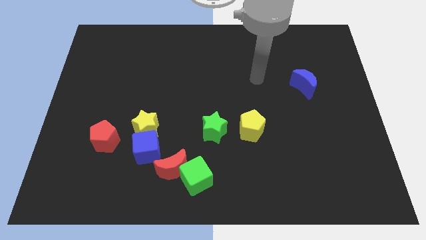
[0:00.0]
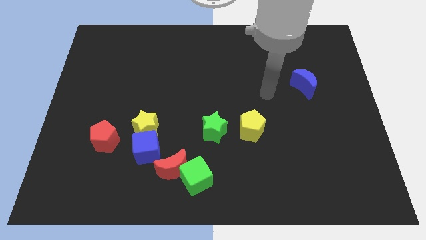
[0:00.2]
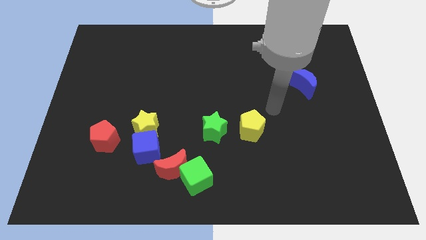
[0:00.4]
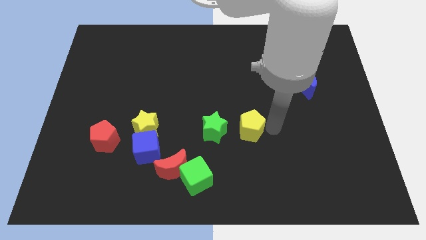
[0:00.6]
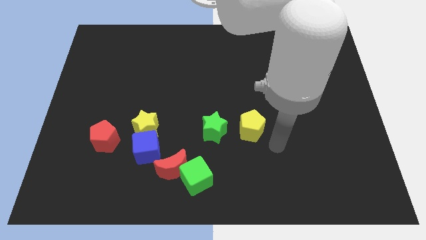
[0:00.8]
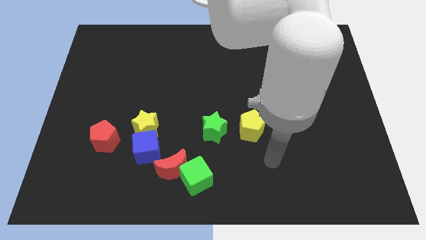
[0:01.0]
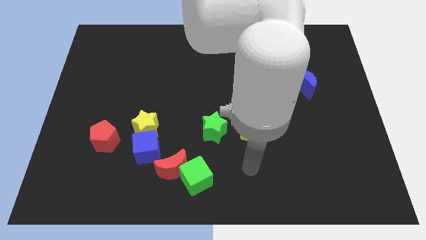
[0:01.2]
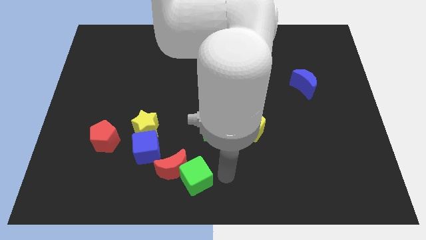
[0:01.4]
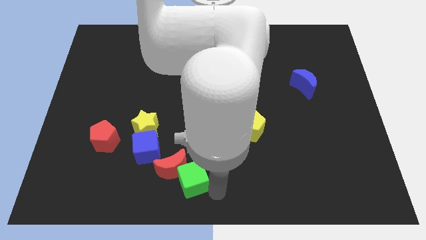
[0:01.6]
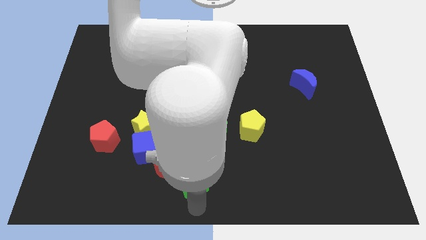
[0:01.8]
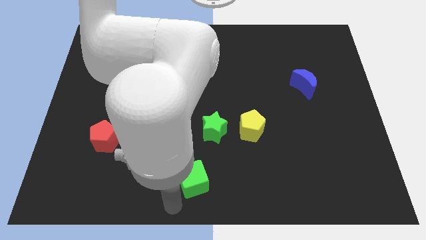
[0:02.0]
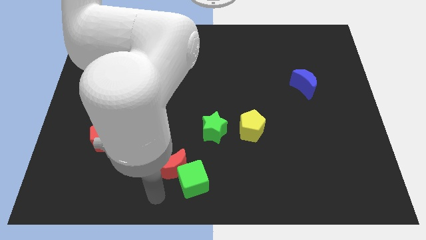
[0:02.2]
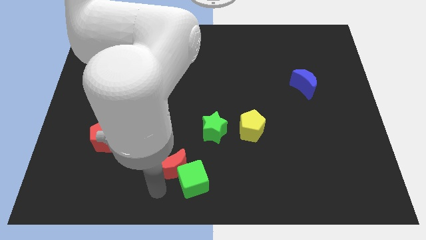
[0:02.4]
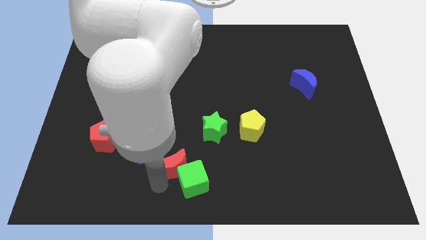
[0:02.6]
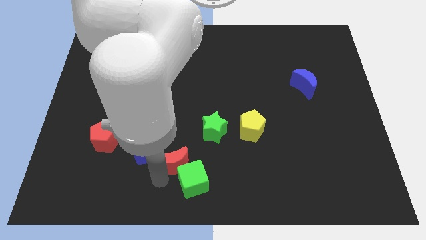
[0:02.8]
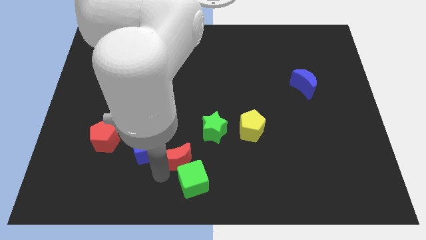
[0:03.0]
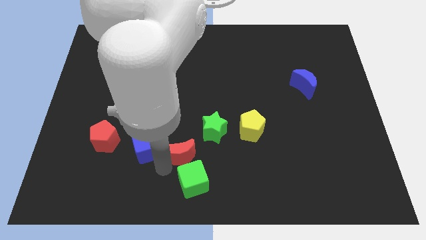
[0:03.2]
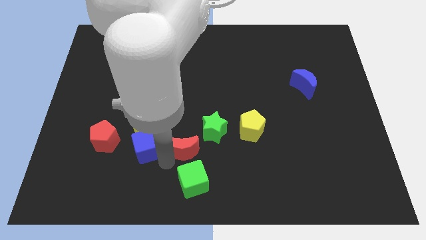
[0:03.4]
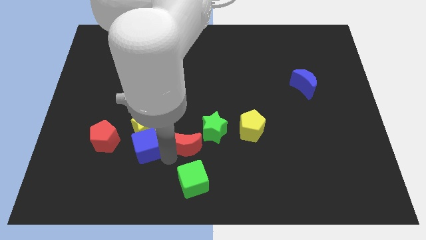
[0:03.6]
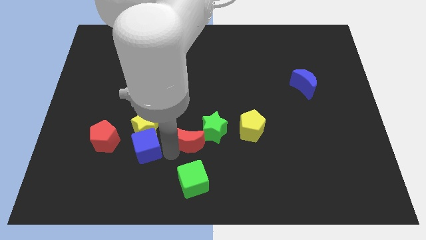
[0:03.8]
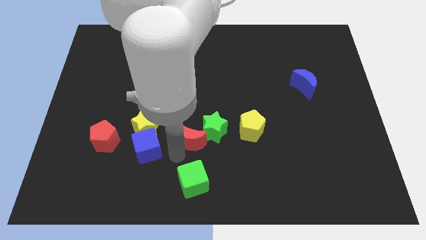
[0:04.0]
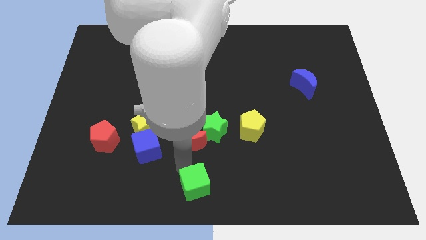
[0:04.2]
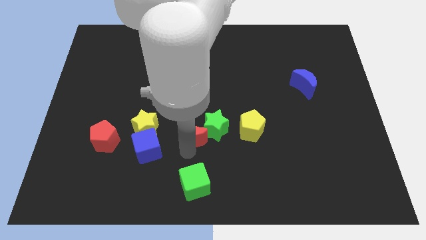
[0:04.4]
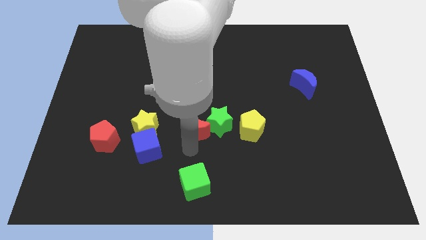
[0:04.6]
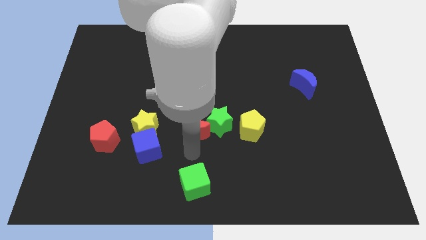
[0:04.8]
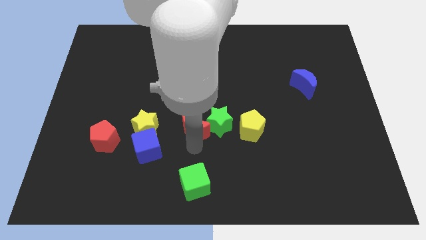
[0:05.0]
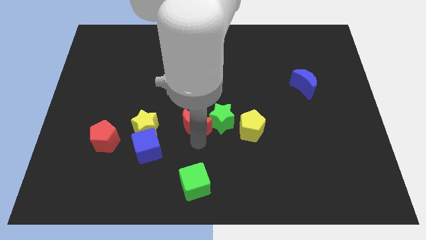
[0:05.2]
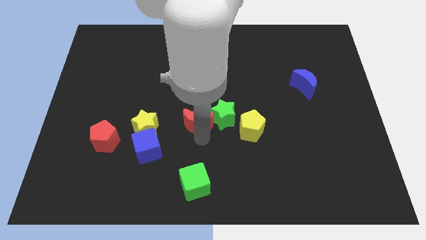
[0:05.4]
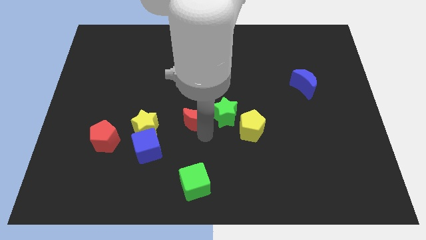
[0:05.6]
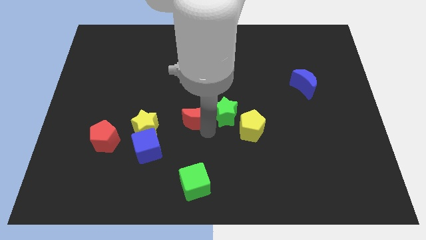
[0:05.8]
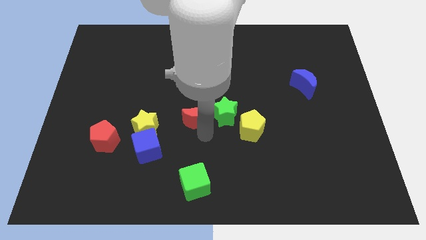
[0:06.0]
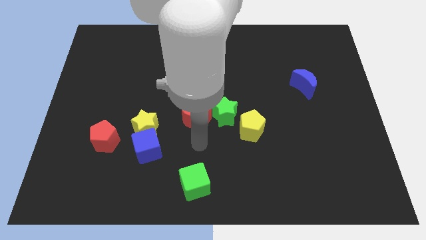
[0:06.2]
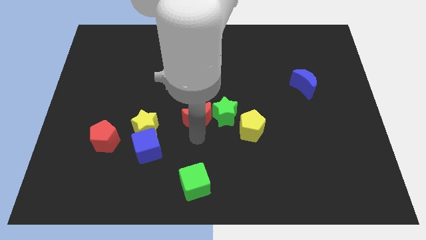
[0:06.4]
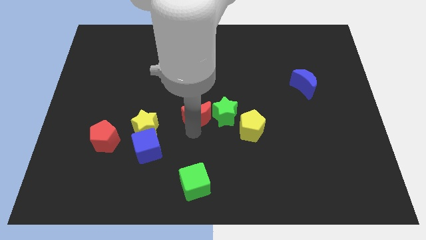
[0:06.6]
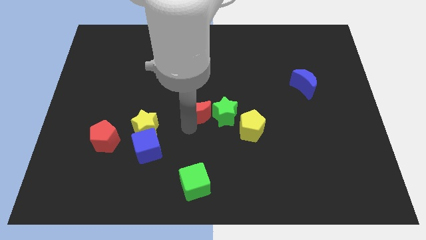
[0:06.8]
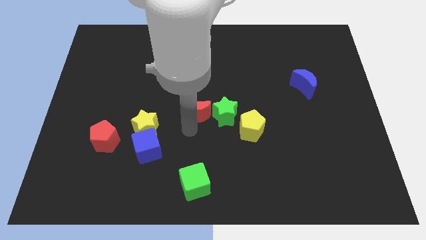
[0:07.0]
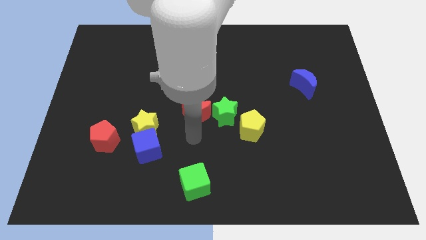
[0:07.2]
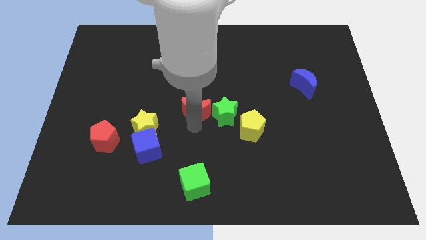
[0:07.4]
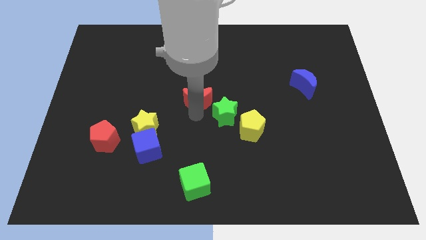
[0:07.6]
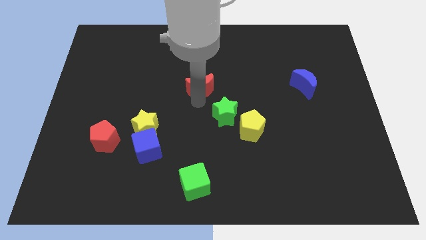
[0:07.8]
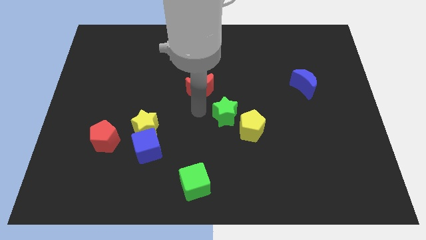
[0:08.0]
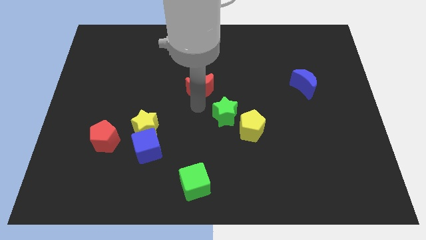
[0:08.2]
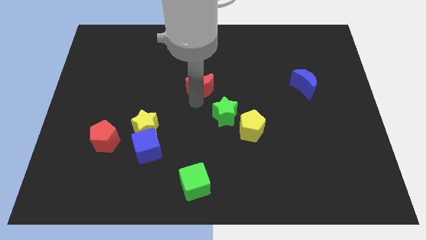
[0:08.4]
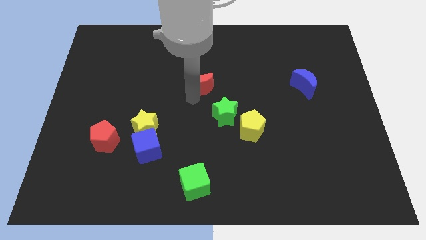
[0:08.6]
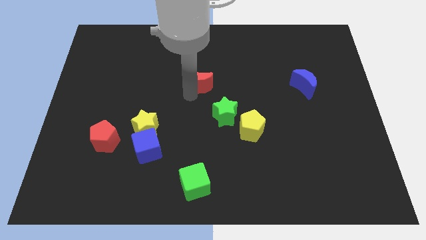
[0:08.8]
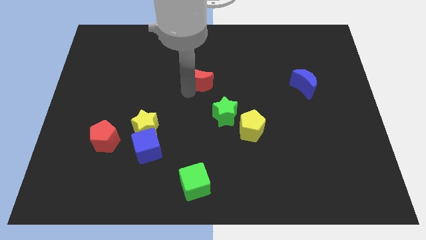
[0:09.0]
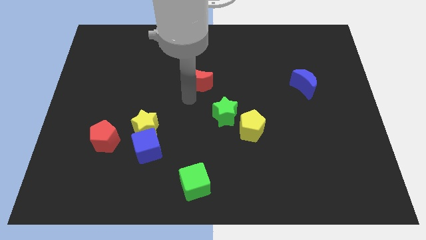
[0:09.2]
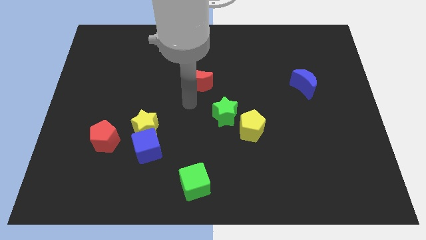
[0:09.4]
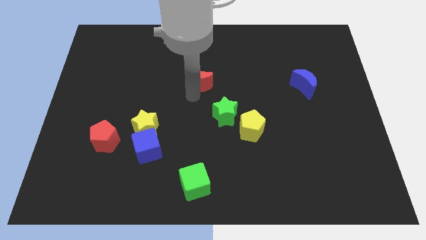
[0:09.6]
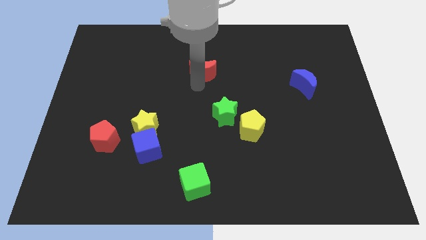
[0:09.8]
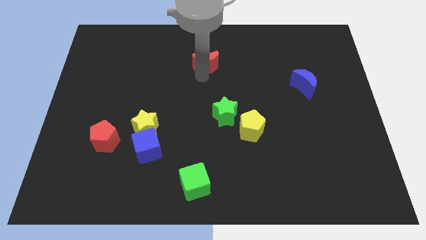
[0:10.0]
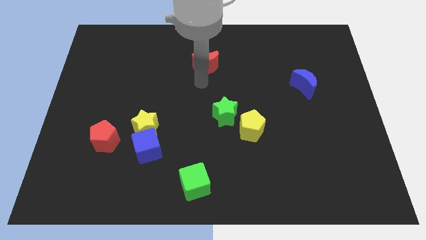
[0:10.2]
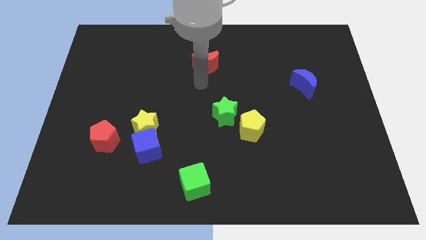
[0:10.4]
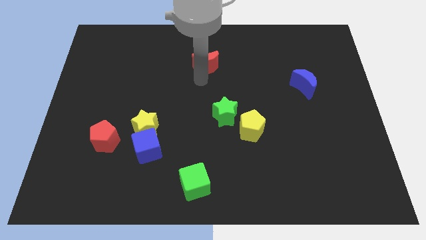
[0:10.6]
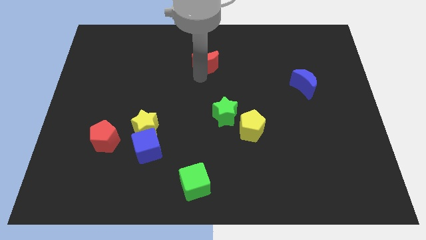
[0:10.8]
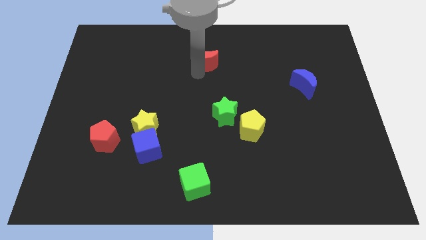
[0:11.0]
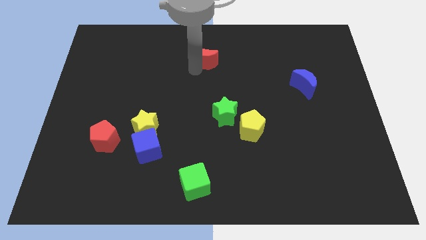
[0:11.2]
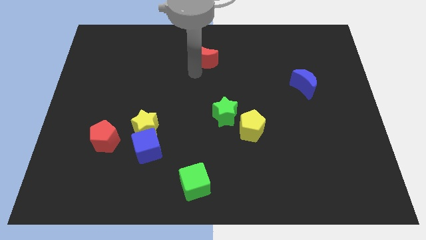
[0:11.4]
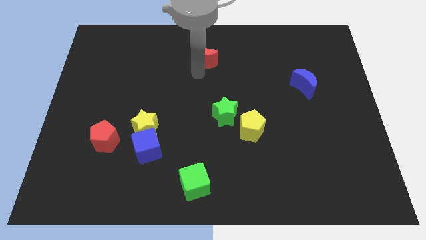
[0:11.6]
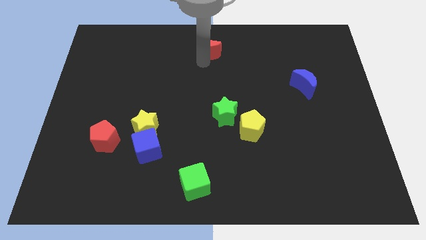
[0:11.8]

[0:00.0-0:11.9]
push the red moon to the top
